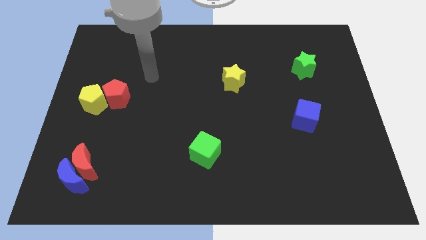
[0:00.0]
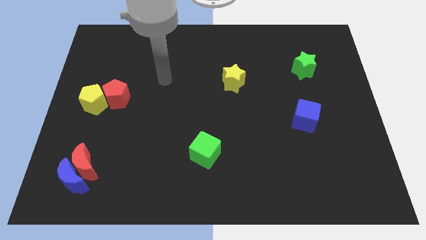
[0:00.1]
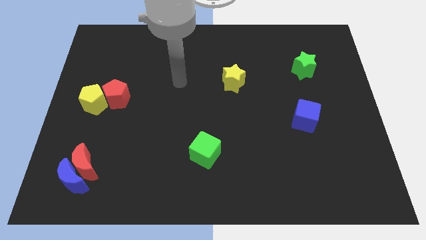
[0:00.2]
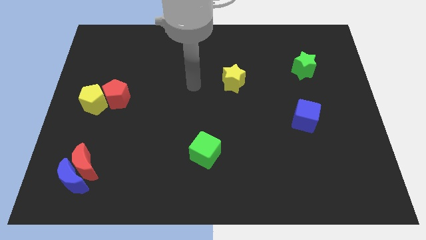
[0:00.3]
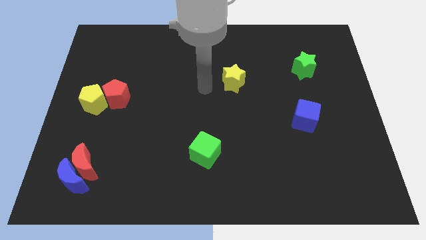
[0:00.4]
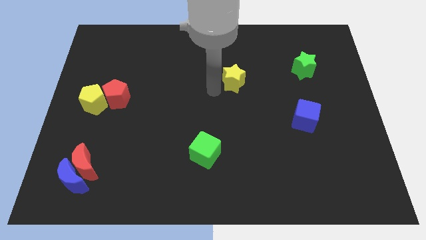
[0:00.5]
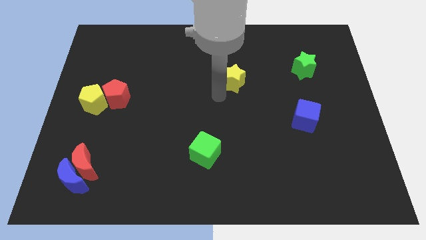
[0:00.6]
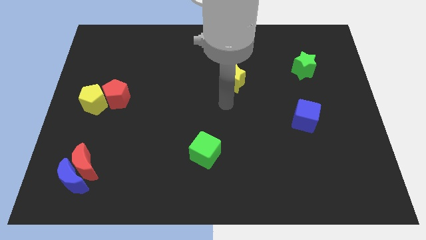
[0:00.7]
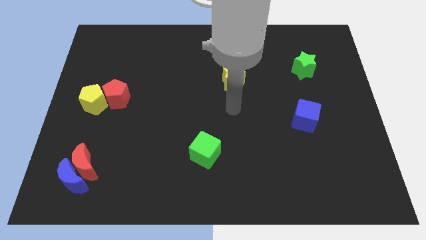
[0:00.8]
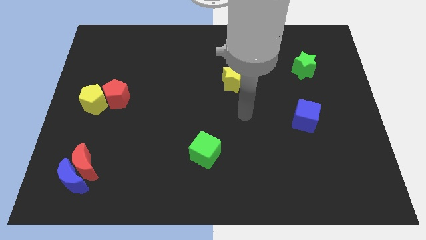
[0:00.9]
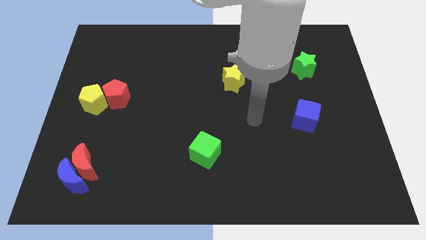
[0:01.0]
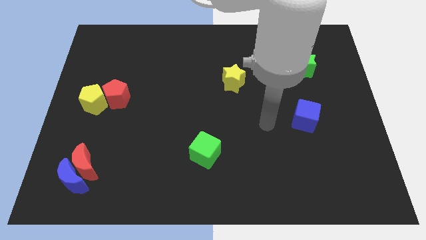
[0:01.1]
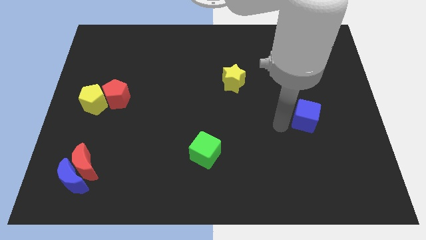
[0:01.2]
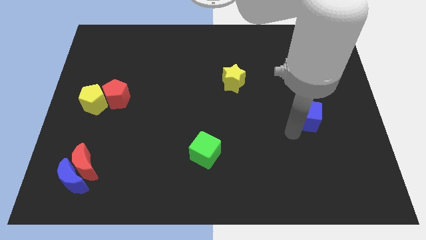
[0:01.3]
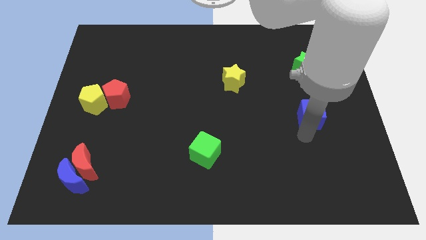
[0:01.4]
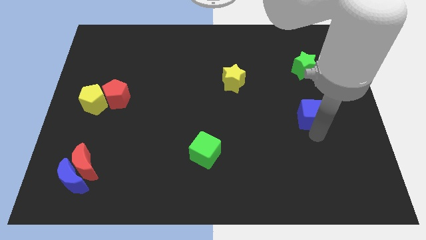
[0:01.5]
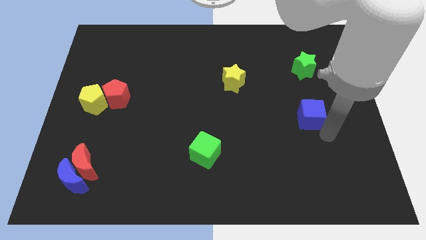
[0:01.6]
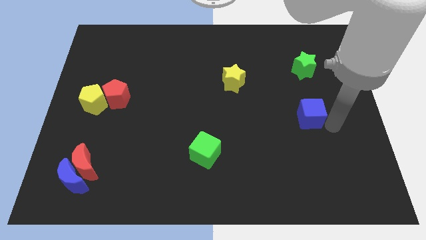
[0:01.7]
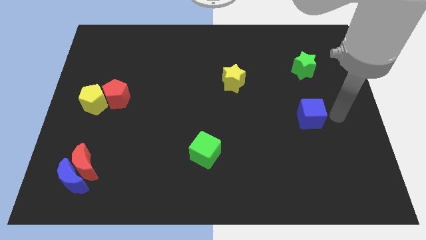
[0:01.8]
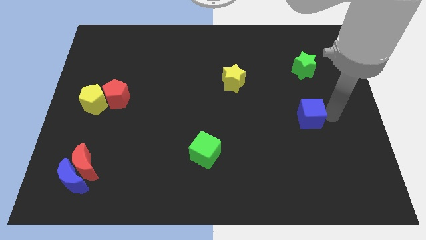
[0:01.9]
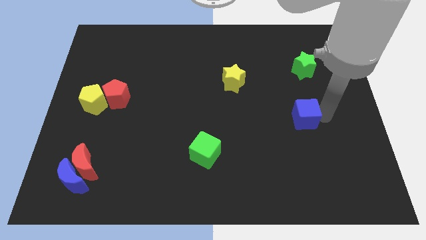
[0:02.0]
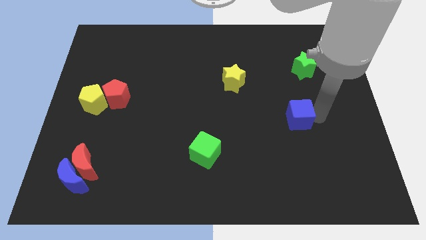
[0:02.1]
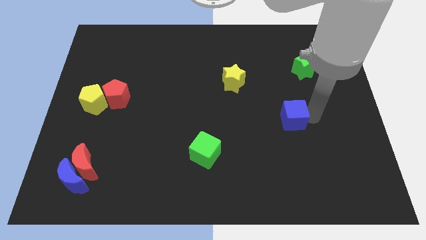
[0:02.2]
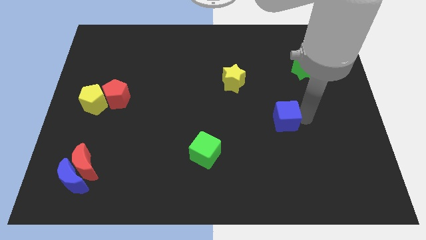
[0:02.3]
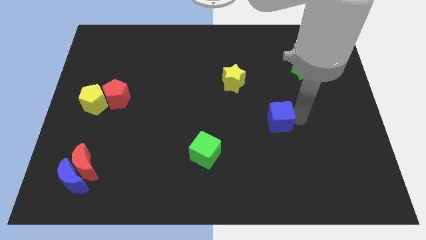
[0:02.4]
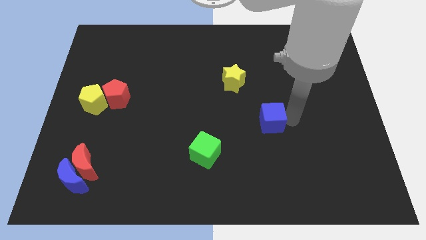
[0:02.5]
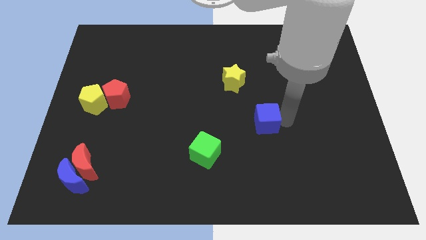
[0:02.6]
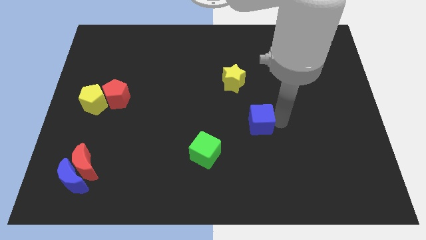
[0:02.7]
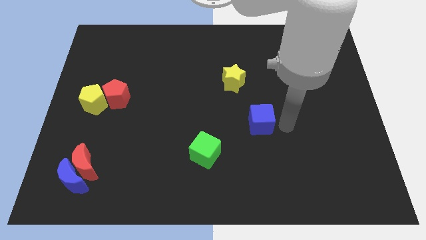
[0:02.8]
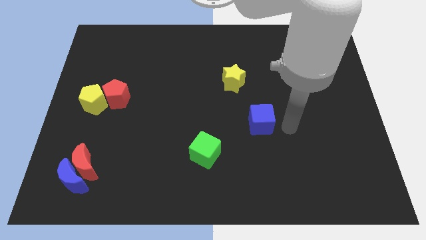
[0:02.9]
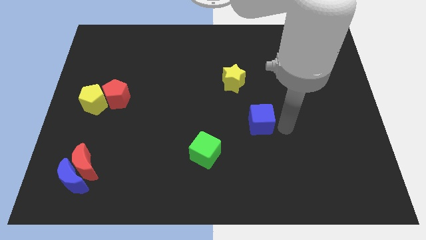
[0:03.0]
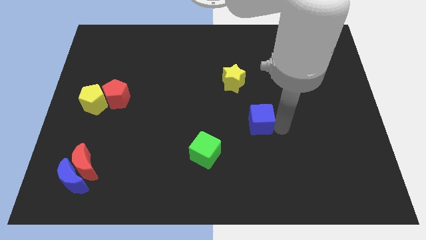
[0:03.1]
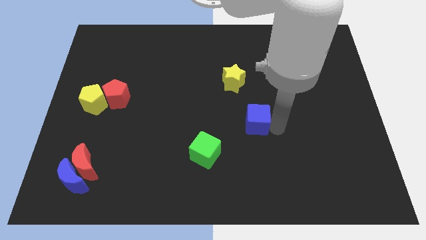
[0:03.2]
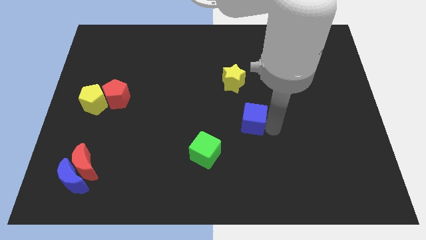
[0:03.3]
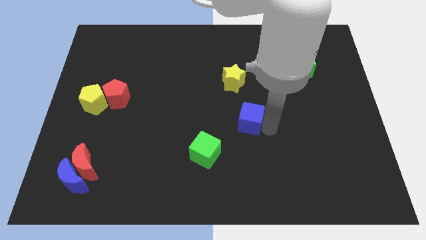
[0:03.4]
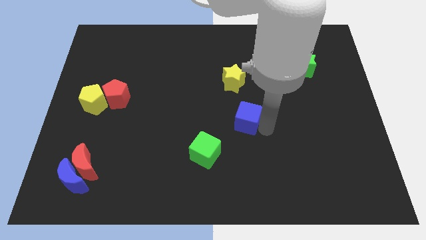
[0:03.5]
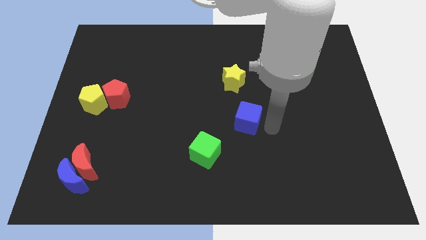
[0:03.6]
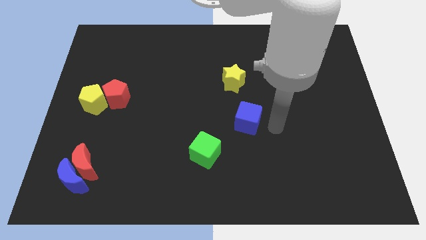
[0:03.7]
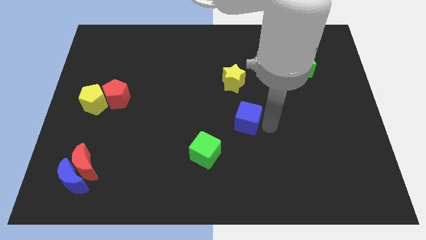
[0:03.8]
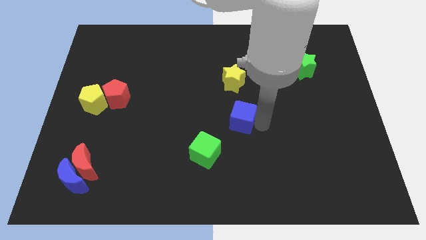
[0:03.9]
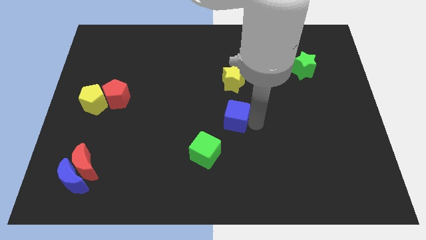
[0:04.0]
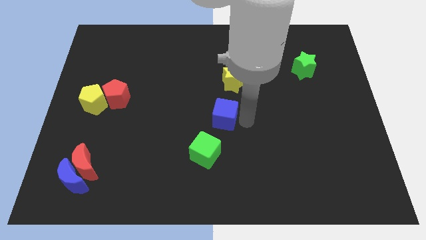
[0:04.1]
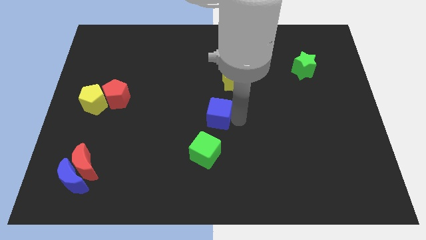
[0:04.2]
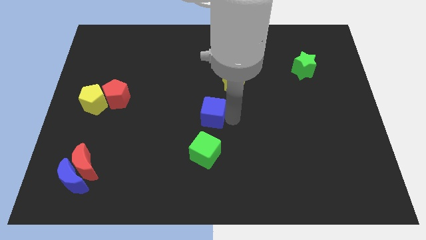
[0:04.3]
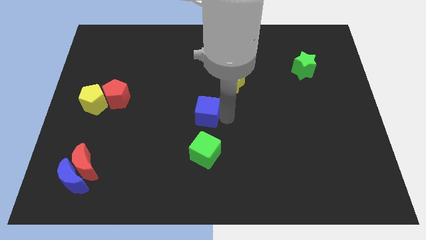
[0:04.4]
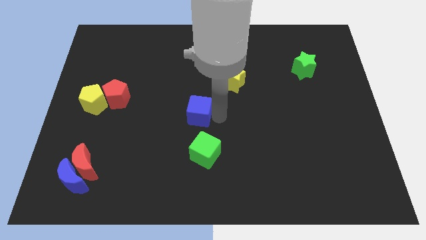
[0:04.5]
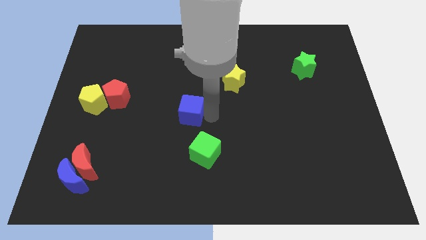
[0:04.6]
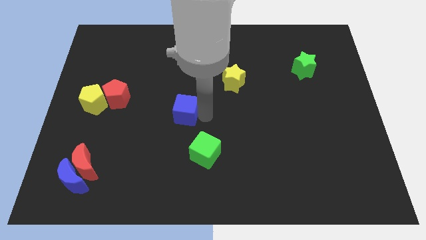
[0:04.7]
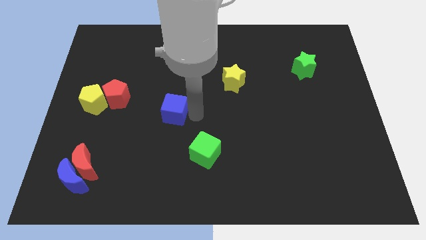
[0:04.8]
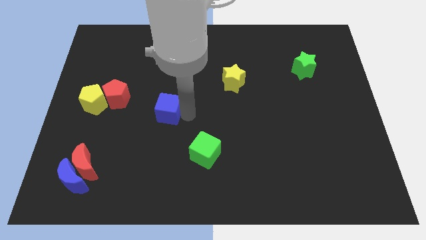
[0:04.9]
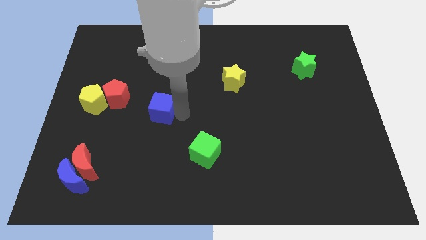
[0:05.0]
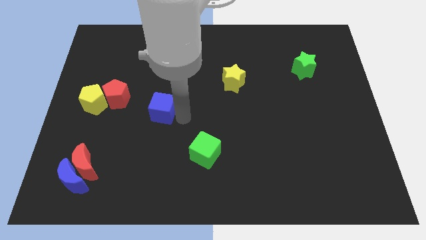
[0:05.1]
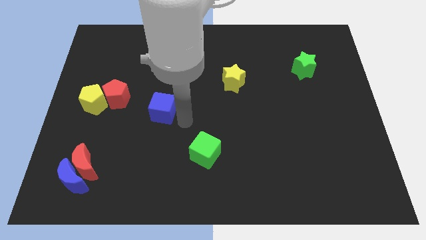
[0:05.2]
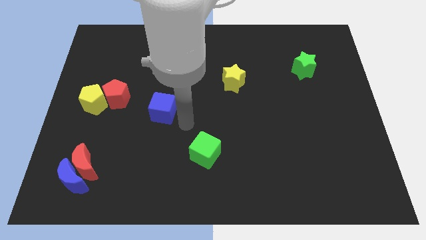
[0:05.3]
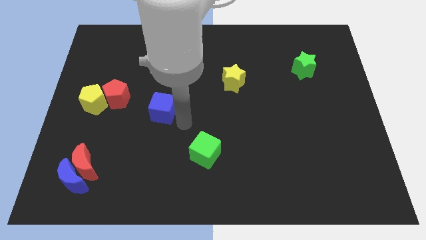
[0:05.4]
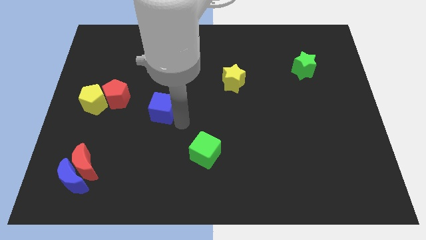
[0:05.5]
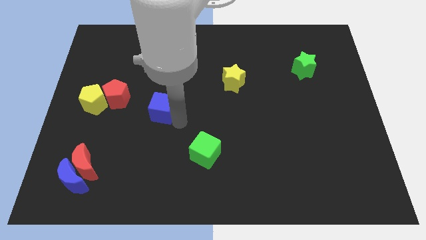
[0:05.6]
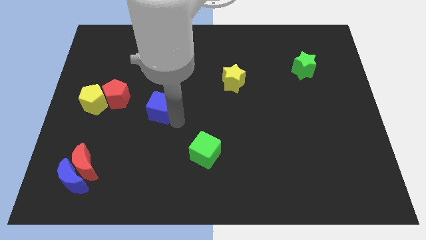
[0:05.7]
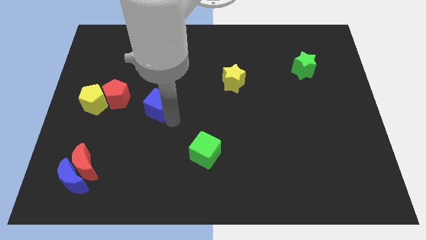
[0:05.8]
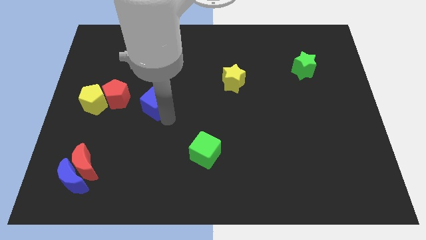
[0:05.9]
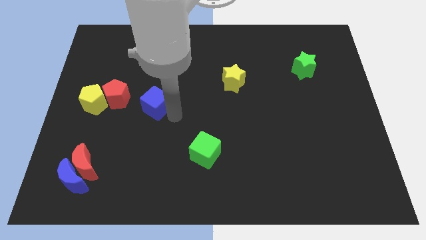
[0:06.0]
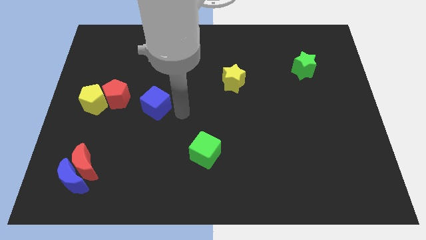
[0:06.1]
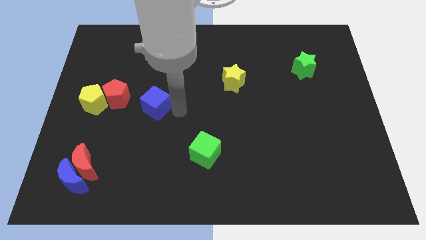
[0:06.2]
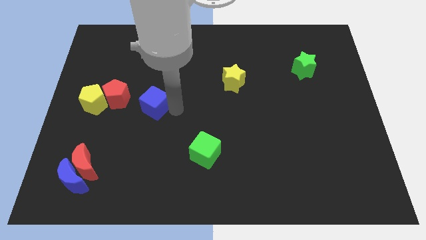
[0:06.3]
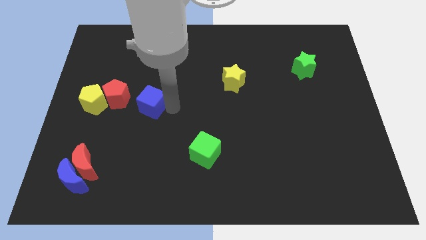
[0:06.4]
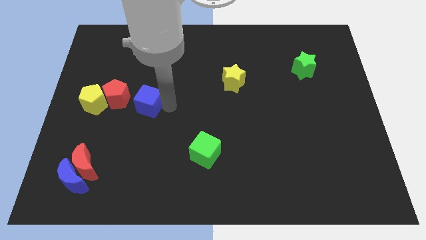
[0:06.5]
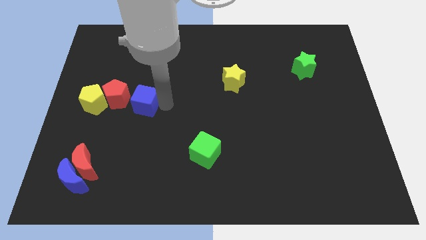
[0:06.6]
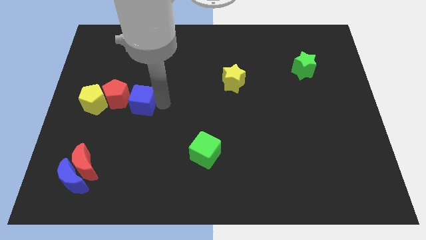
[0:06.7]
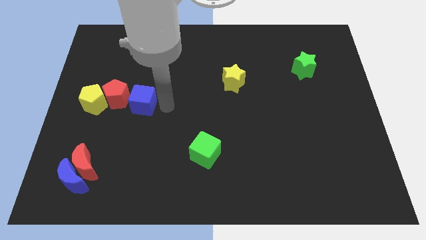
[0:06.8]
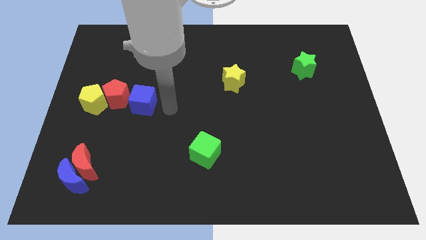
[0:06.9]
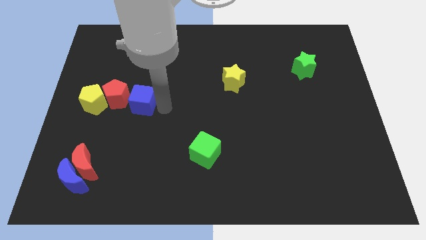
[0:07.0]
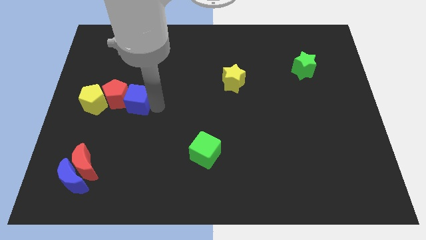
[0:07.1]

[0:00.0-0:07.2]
push the blue cube towards the red pentagon
